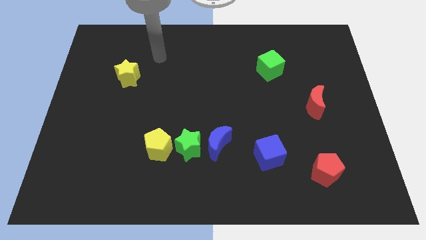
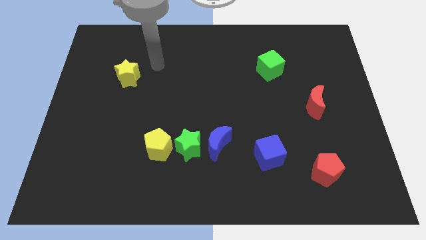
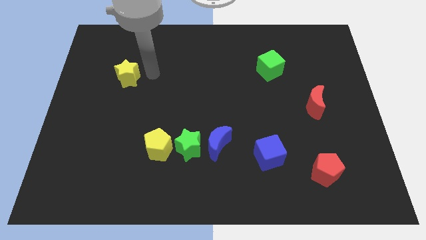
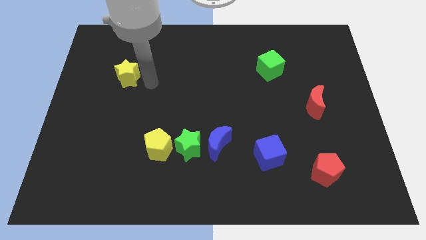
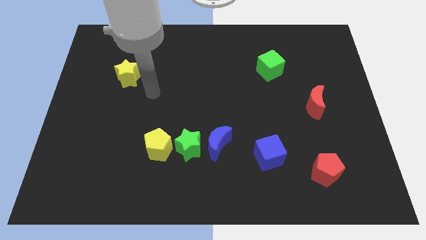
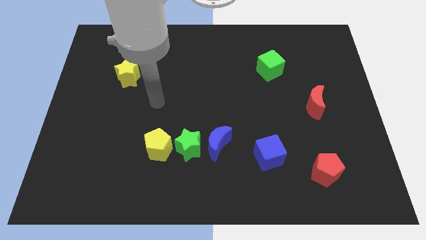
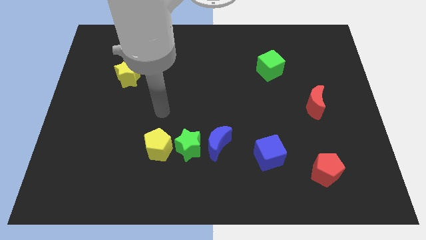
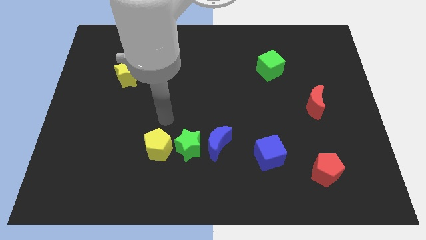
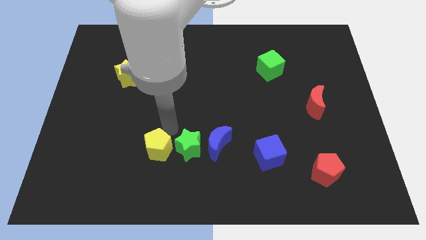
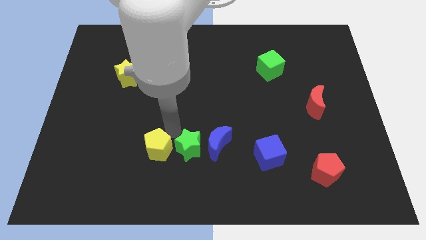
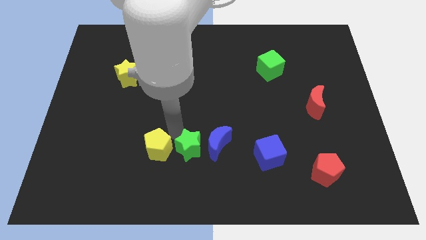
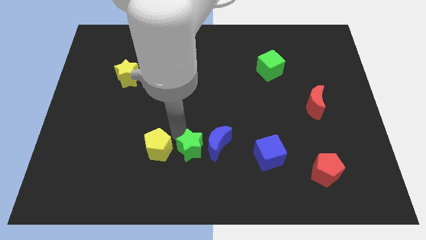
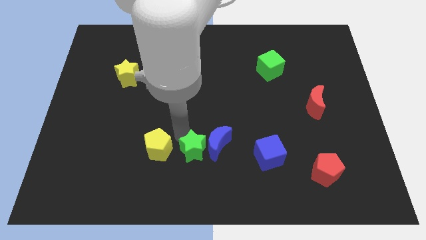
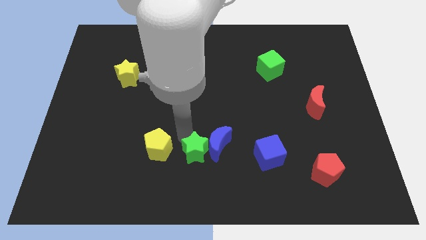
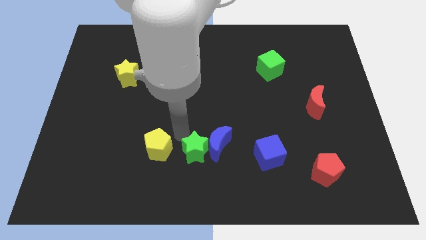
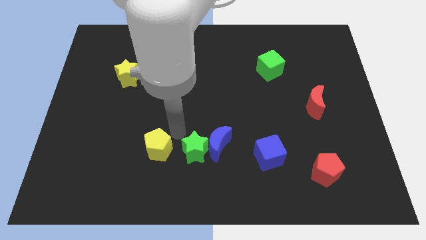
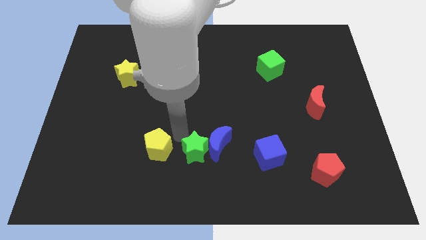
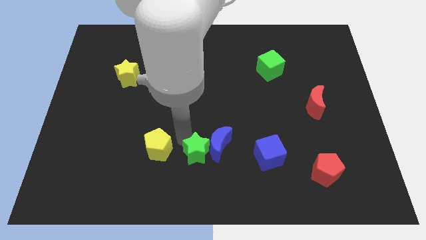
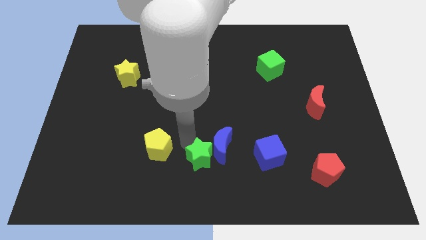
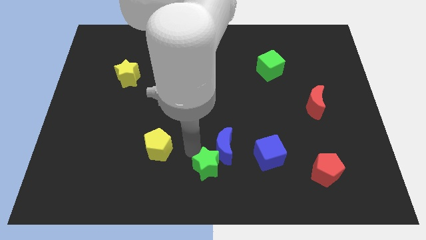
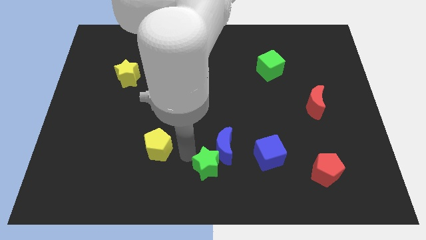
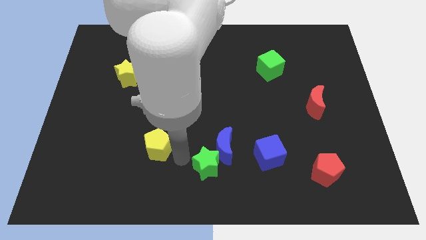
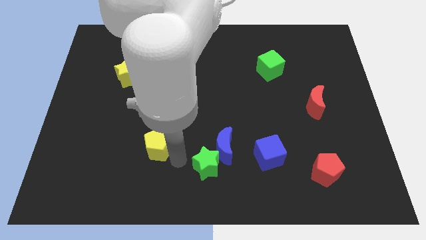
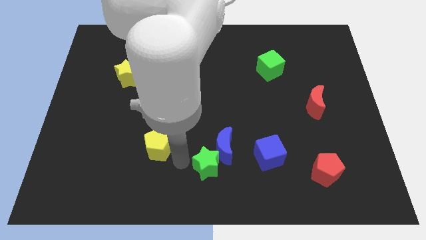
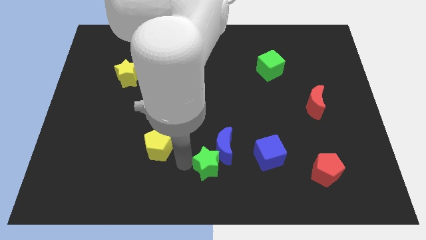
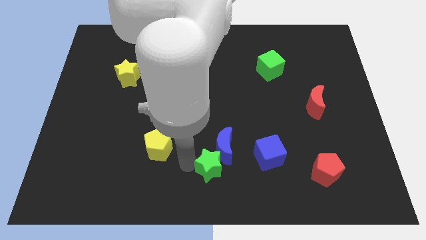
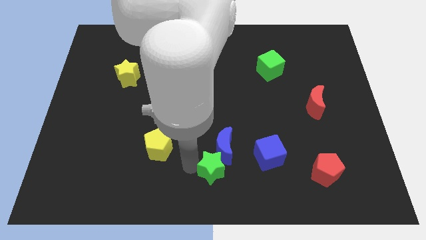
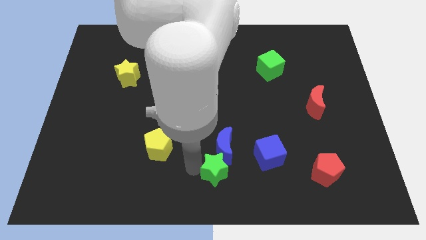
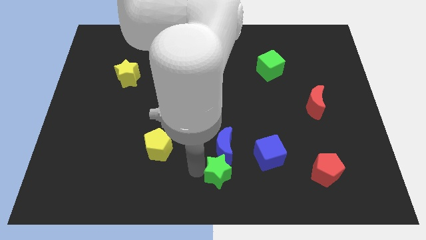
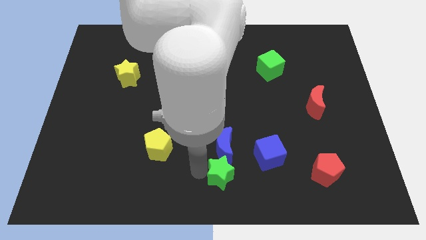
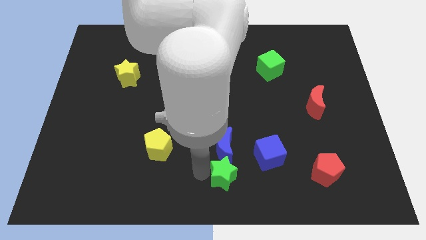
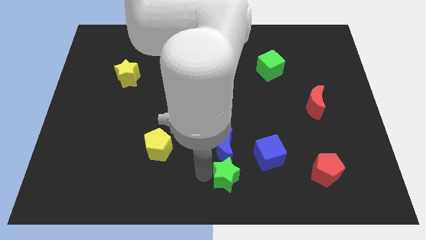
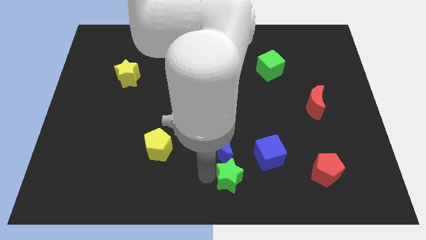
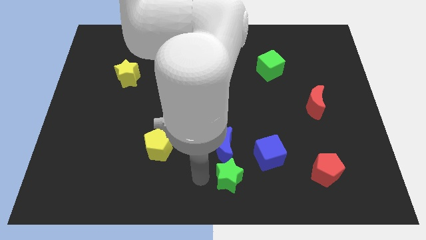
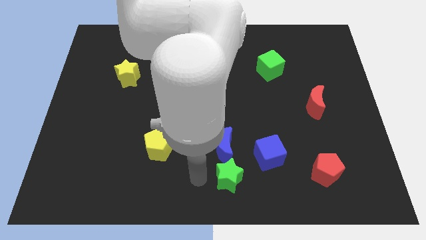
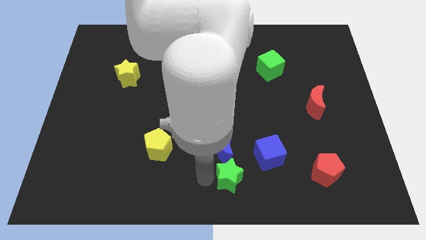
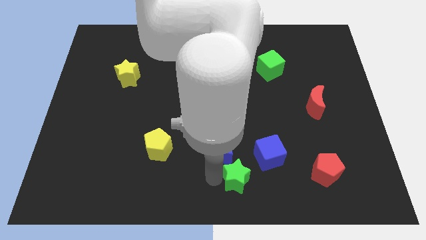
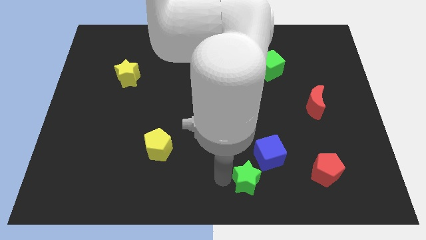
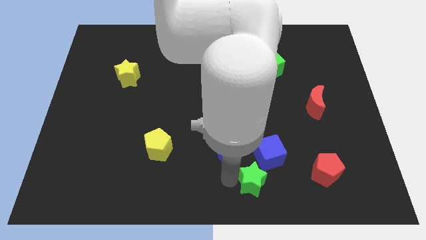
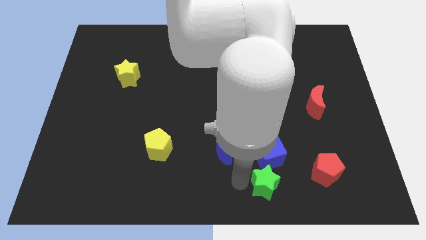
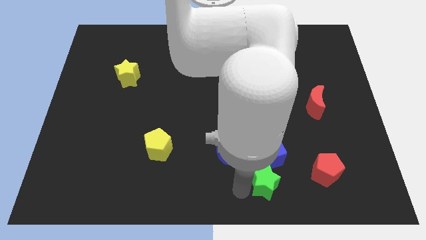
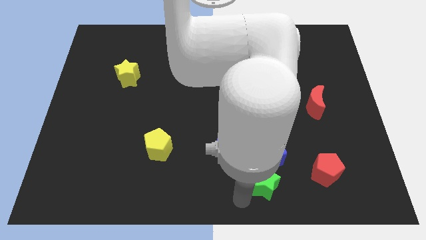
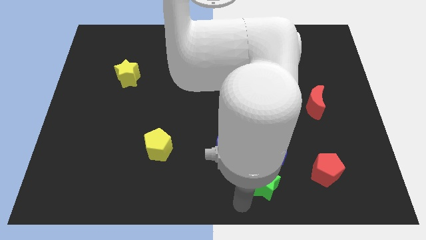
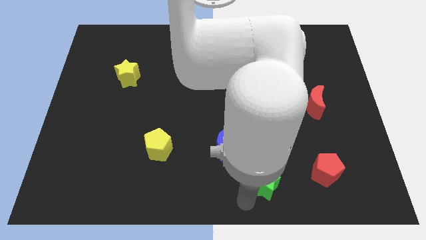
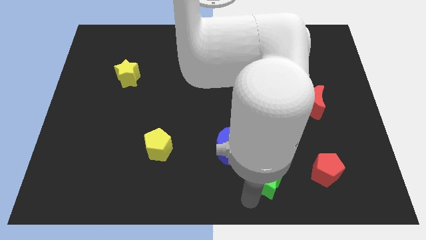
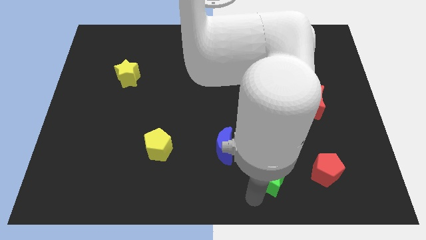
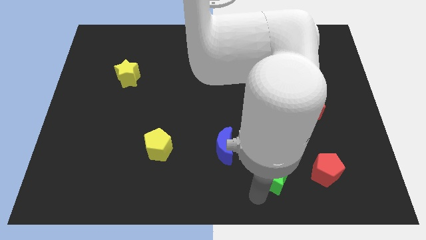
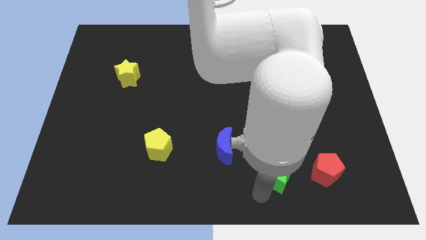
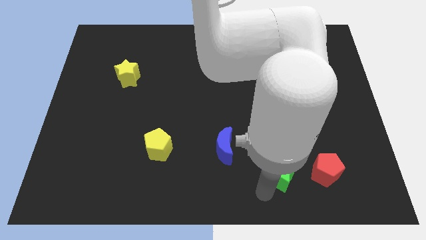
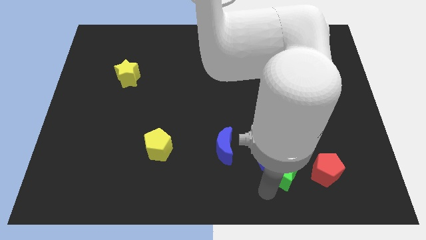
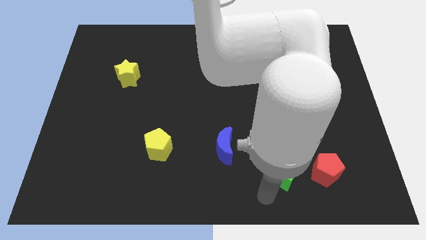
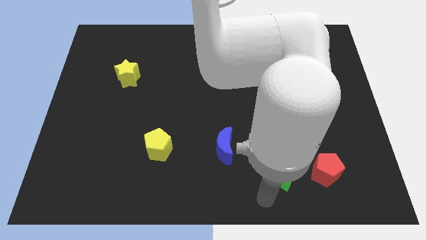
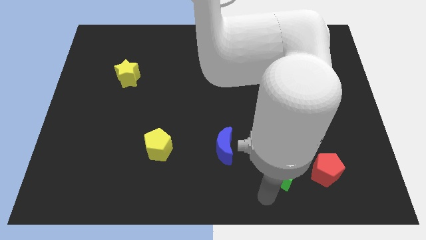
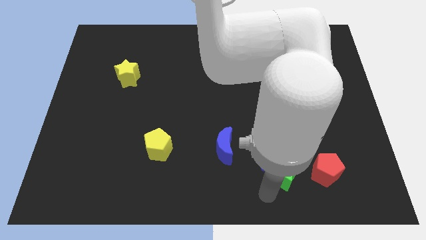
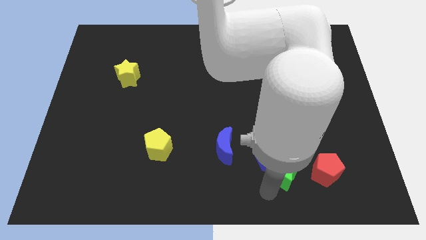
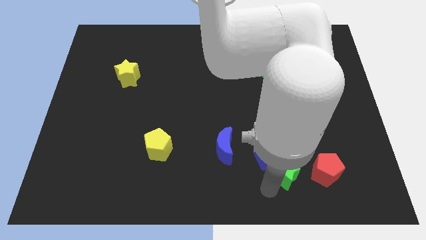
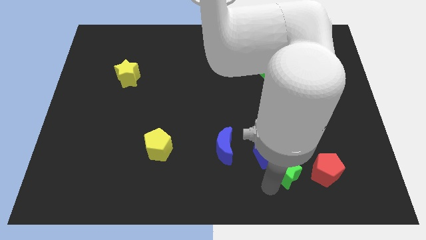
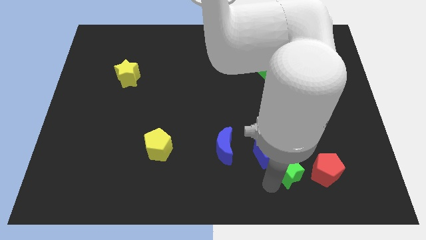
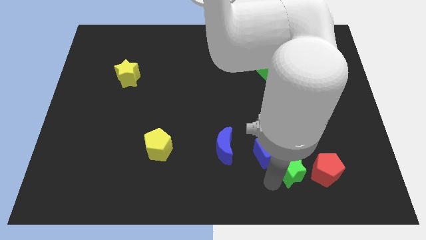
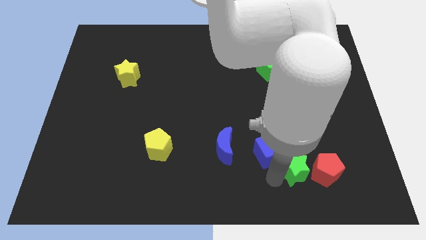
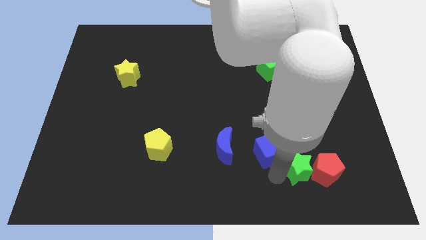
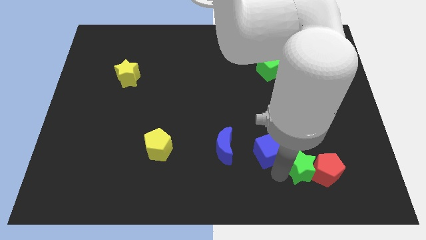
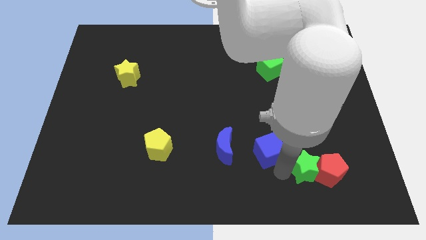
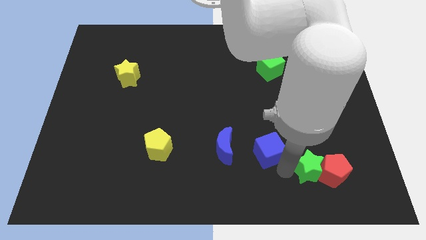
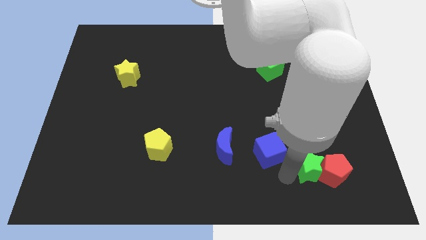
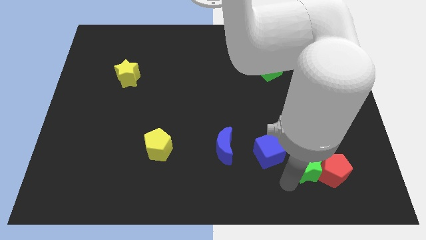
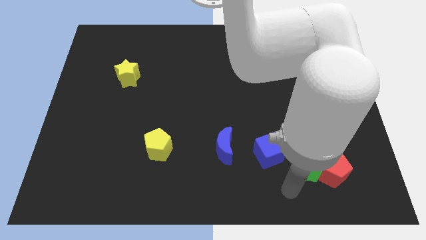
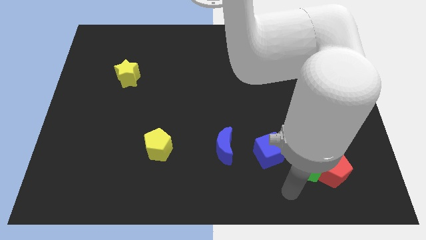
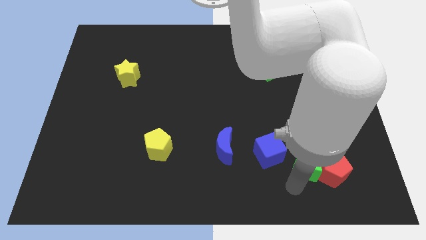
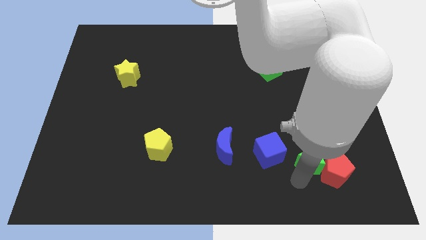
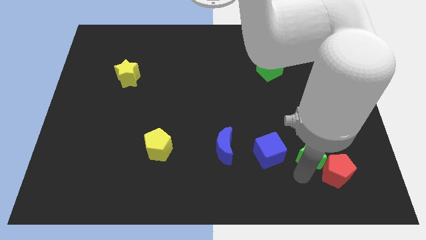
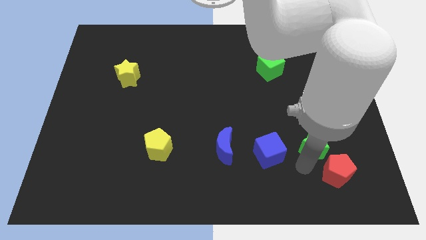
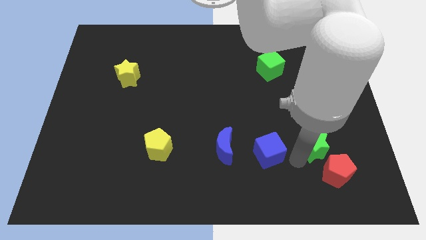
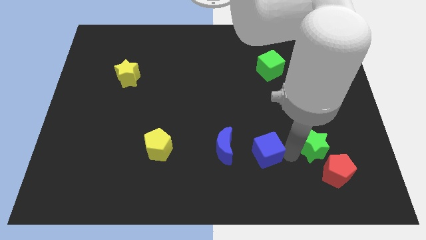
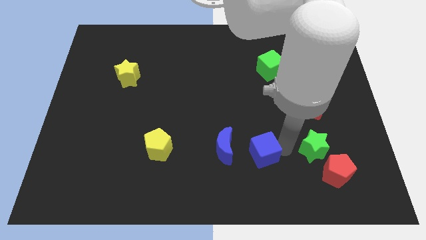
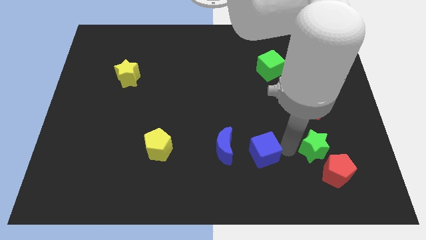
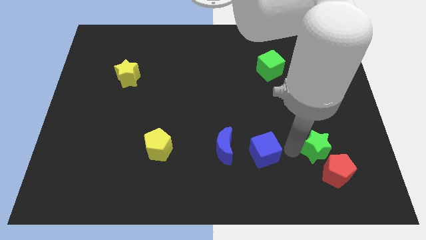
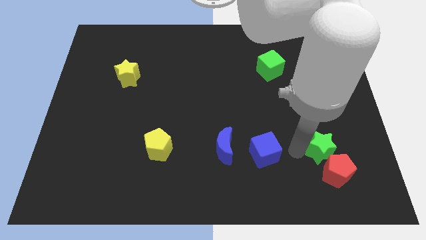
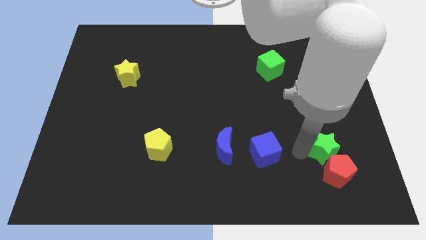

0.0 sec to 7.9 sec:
move the green star to the top right of the red pentagon
